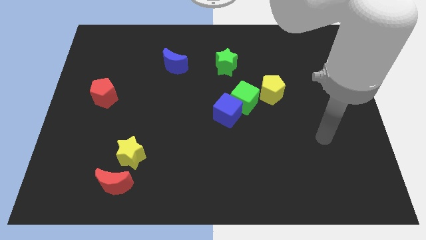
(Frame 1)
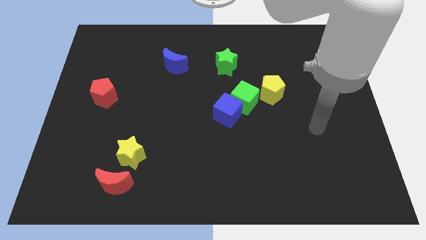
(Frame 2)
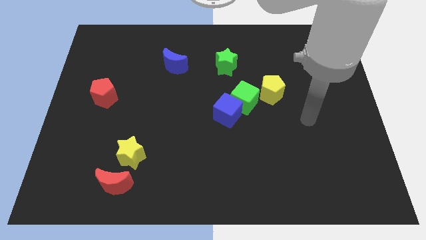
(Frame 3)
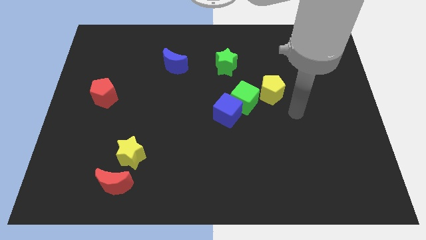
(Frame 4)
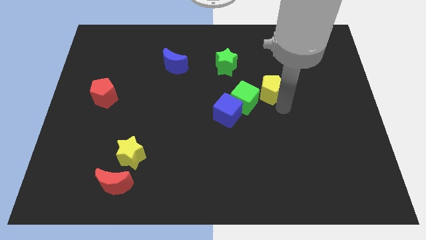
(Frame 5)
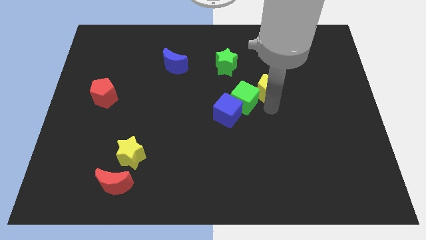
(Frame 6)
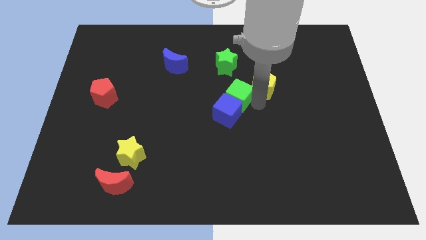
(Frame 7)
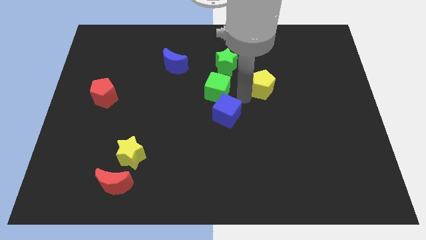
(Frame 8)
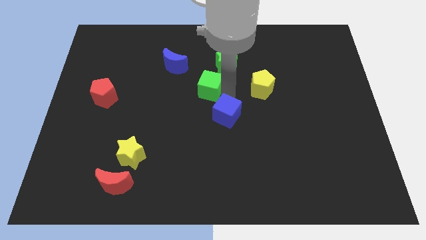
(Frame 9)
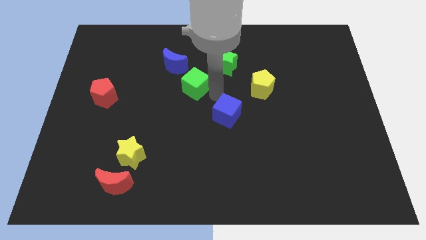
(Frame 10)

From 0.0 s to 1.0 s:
move the blue cube away from the green cube

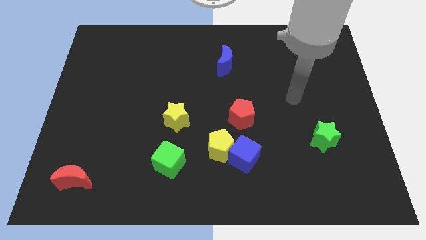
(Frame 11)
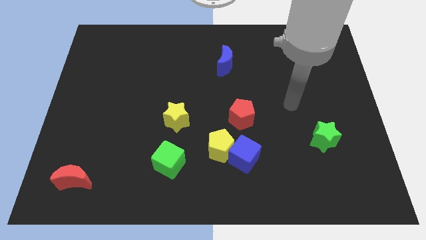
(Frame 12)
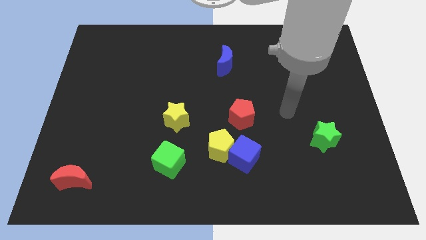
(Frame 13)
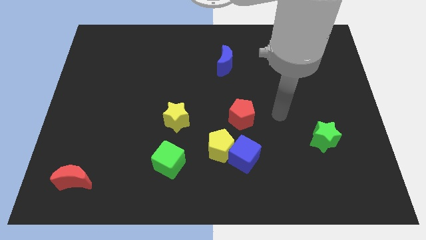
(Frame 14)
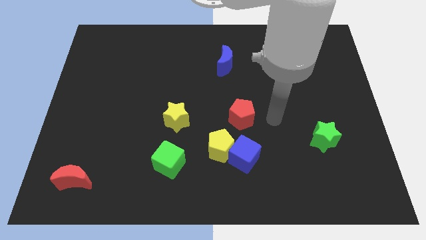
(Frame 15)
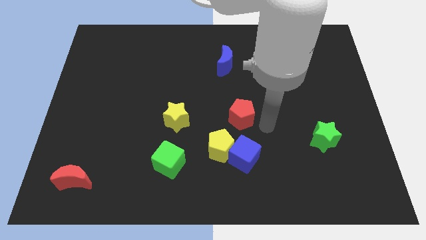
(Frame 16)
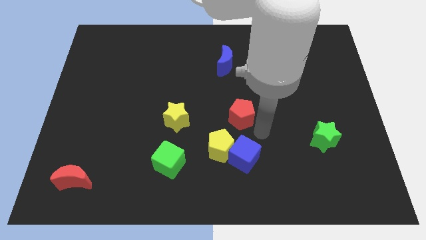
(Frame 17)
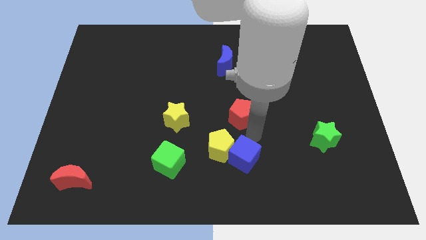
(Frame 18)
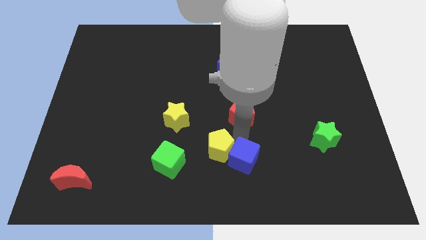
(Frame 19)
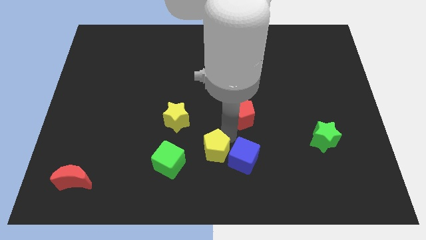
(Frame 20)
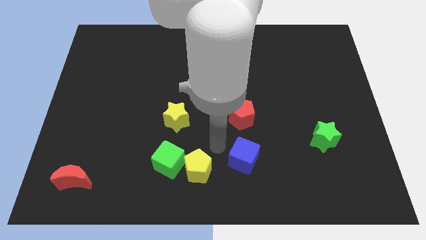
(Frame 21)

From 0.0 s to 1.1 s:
pull the blue cube apart from the yellow pentagon

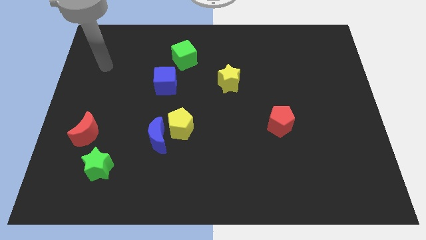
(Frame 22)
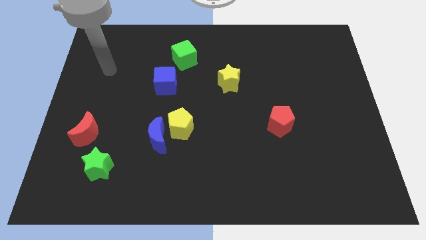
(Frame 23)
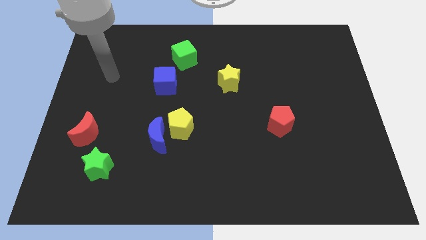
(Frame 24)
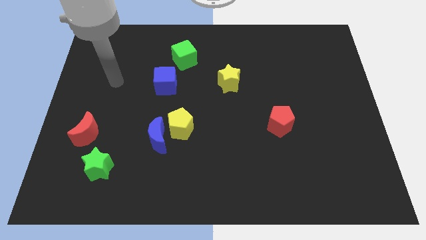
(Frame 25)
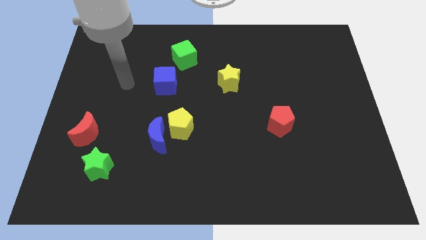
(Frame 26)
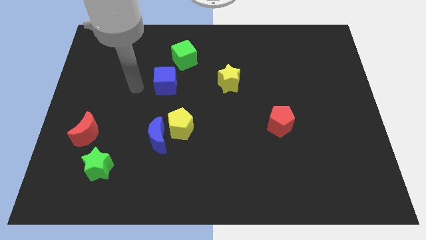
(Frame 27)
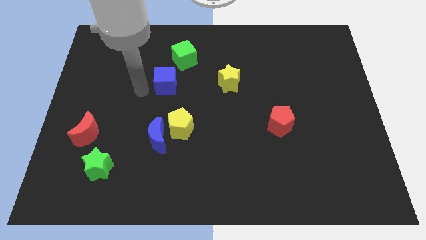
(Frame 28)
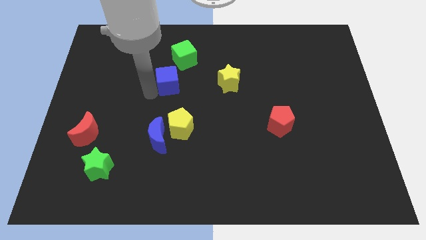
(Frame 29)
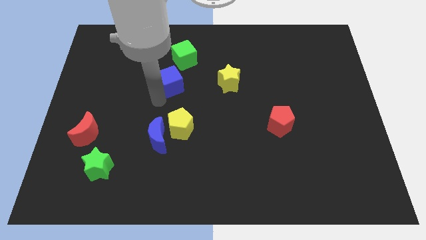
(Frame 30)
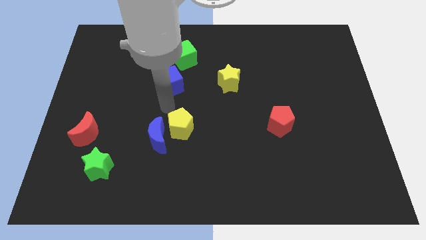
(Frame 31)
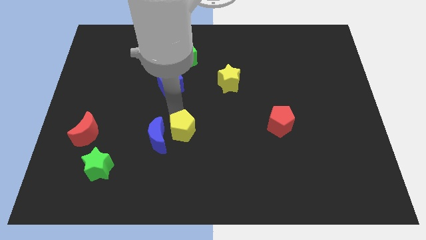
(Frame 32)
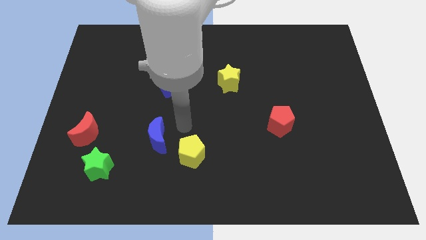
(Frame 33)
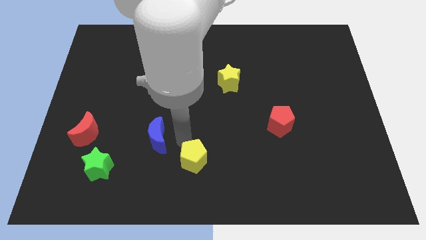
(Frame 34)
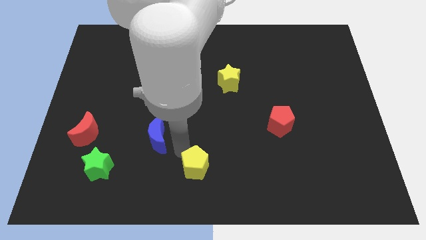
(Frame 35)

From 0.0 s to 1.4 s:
pull the blue moon apart from the yellow pentagon

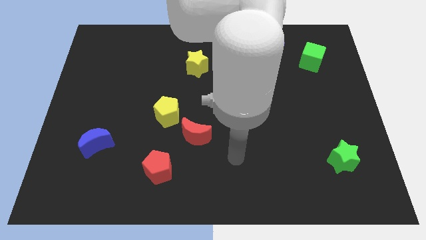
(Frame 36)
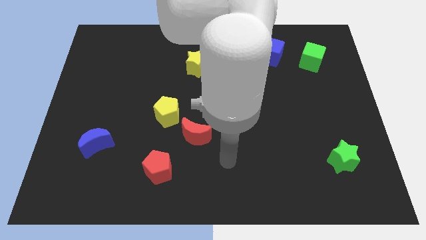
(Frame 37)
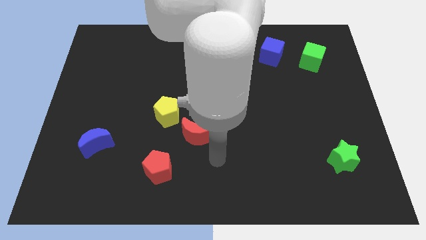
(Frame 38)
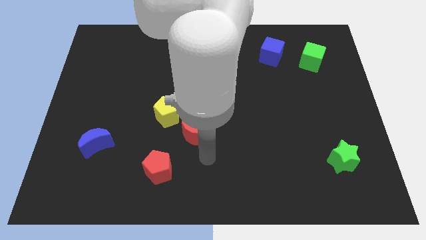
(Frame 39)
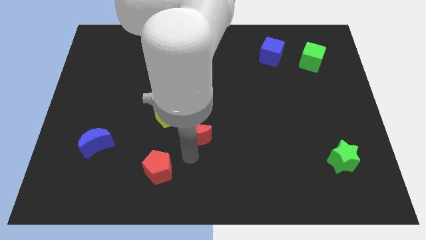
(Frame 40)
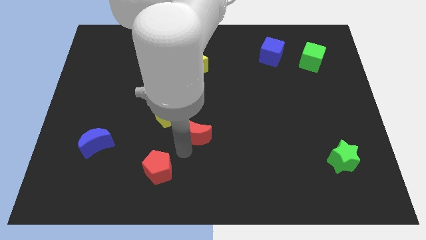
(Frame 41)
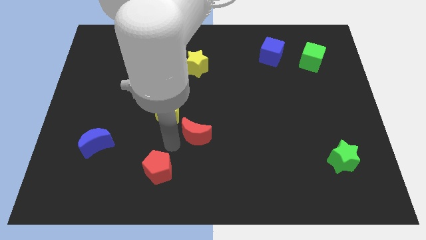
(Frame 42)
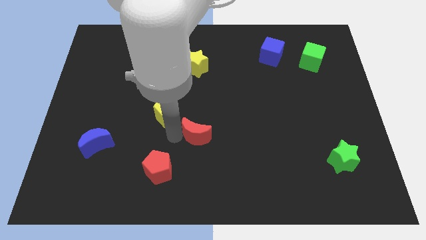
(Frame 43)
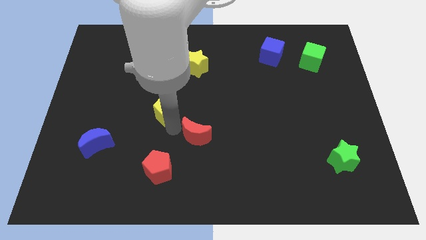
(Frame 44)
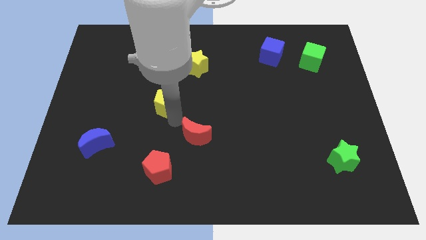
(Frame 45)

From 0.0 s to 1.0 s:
pull the red moon apart from the yellow pentagon

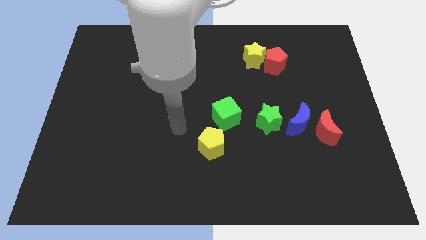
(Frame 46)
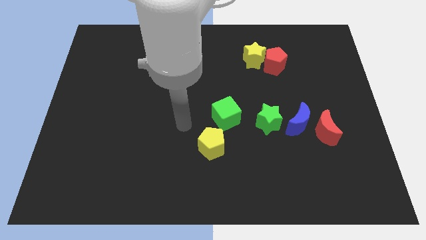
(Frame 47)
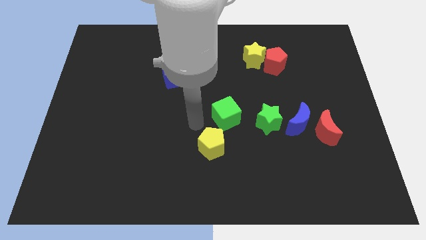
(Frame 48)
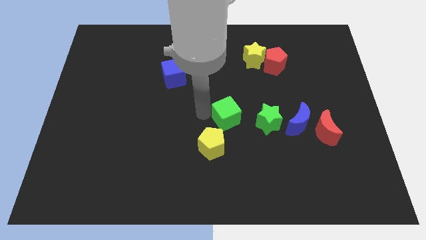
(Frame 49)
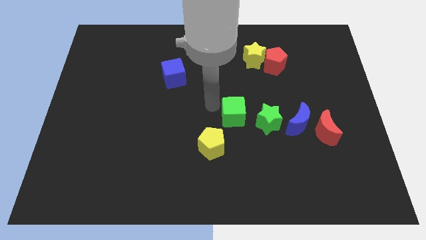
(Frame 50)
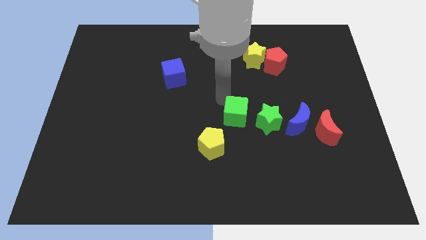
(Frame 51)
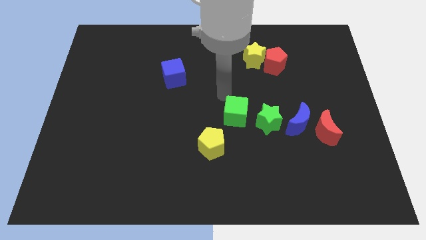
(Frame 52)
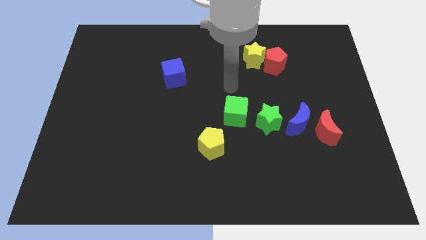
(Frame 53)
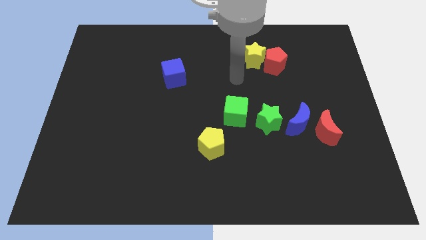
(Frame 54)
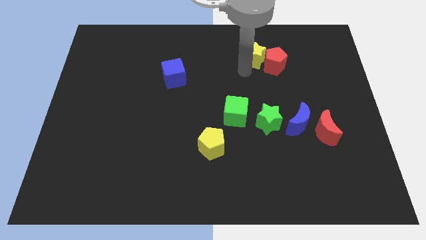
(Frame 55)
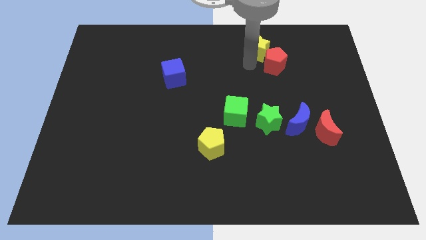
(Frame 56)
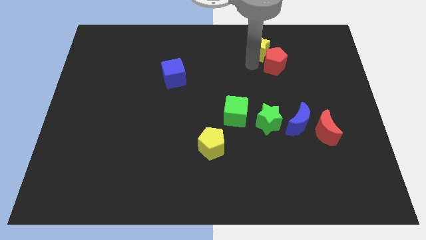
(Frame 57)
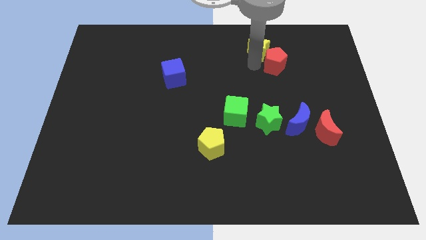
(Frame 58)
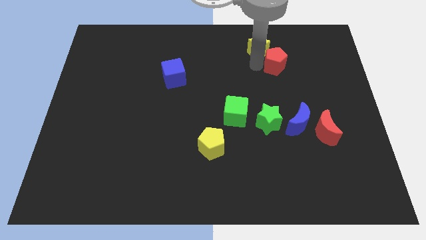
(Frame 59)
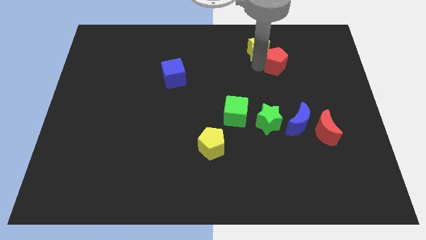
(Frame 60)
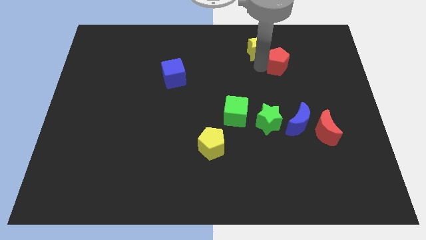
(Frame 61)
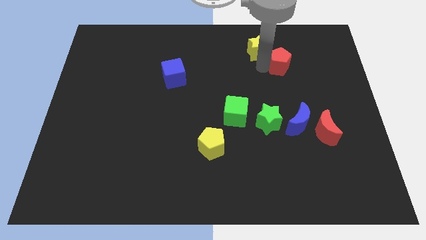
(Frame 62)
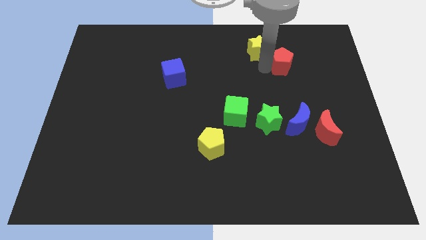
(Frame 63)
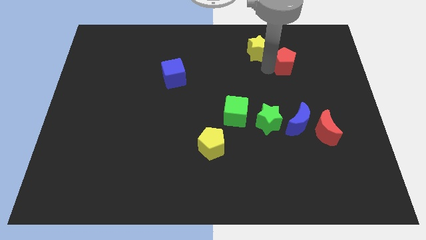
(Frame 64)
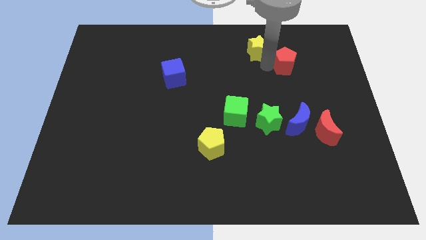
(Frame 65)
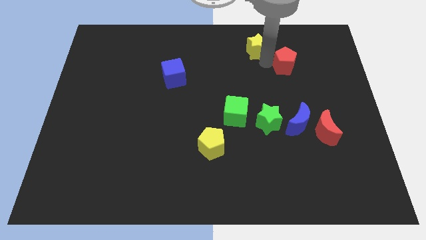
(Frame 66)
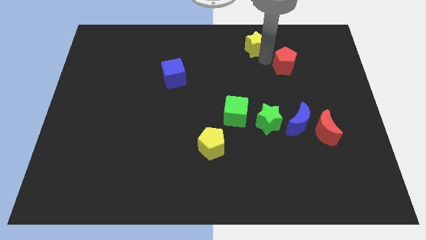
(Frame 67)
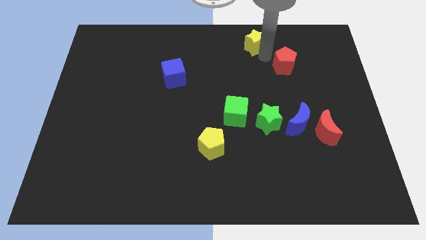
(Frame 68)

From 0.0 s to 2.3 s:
move the red pentagon away from the yellow star

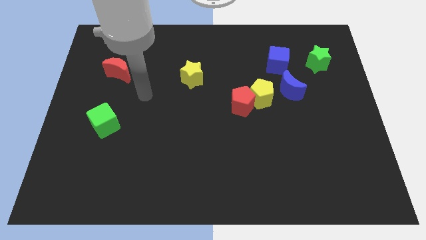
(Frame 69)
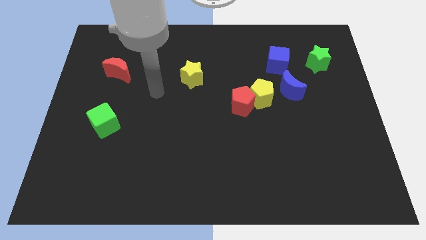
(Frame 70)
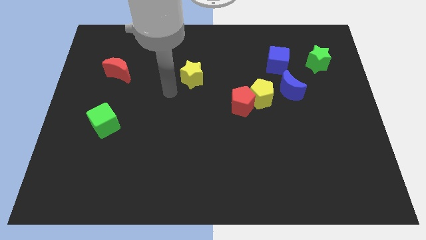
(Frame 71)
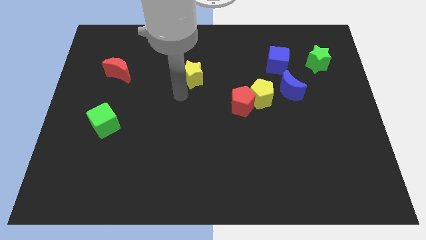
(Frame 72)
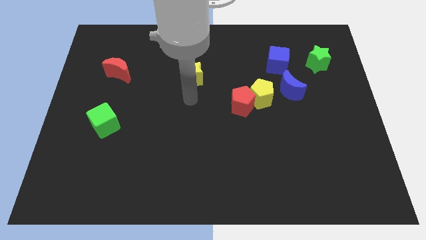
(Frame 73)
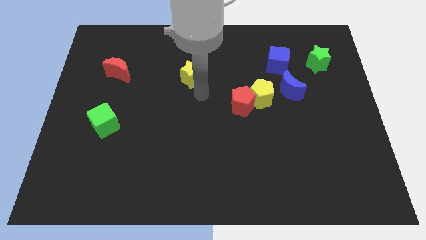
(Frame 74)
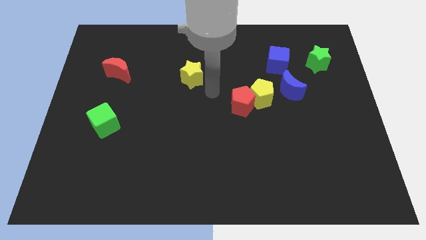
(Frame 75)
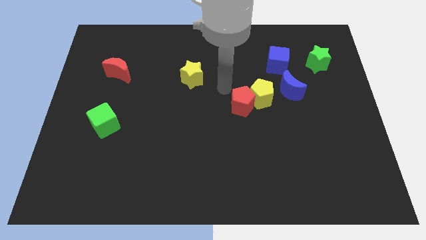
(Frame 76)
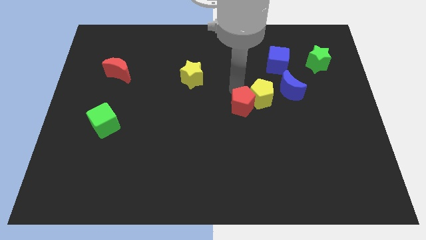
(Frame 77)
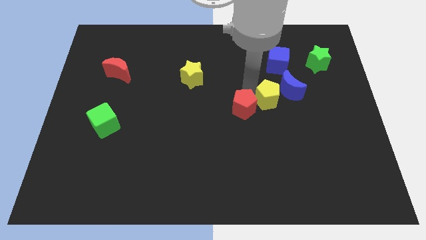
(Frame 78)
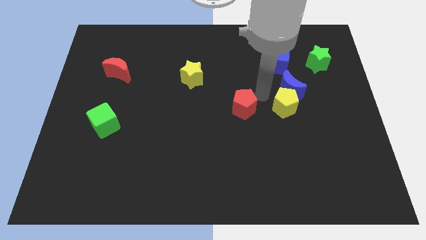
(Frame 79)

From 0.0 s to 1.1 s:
pull the red pentagon apart from the yellow pentagon

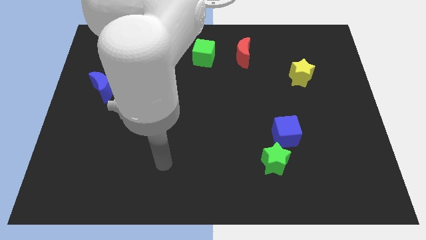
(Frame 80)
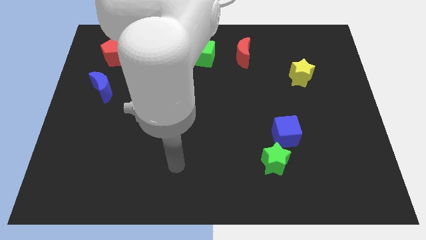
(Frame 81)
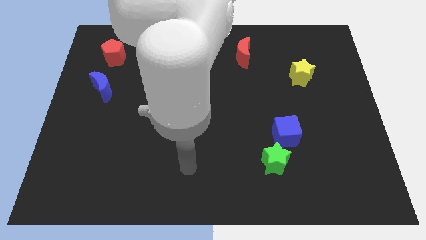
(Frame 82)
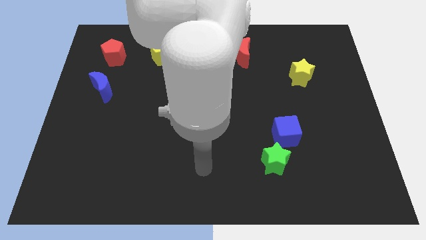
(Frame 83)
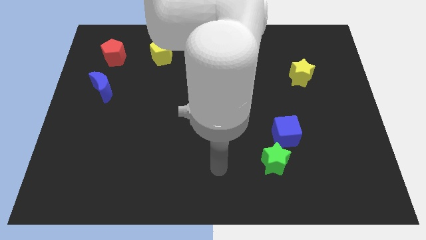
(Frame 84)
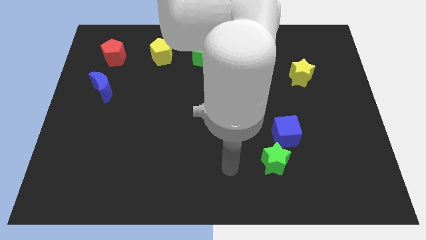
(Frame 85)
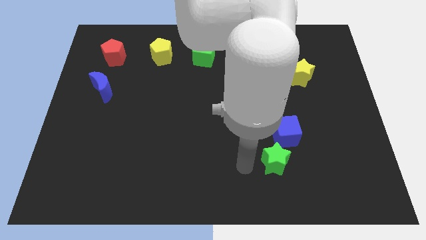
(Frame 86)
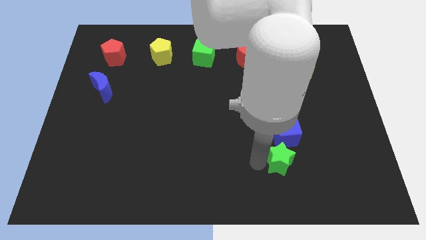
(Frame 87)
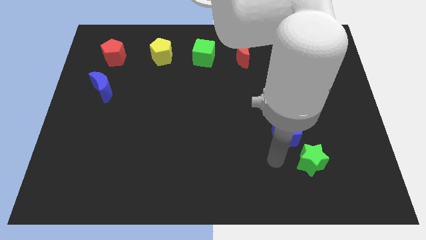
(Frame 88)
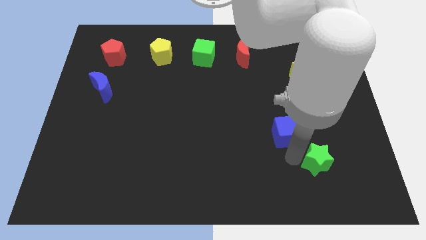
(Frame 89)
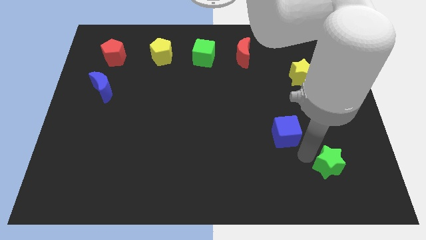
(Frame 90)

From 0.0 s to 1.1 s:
move the blue cube away from the green star

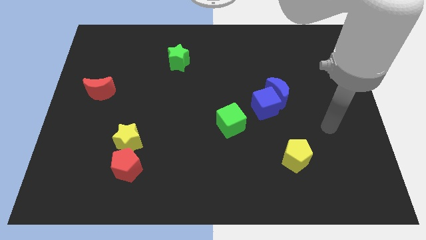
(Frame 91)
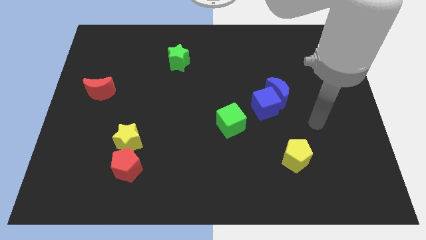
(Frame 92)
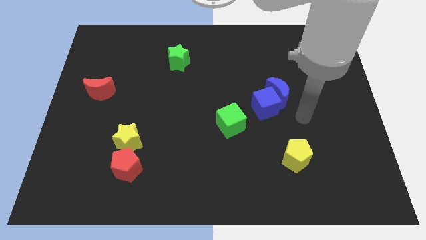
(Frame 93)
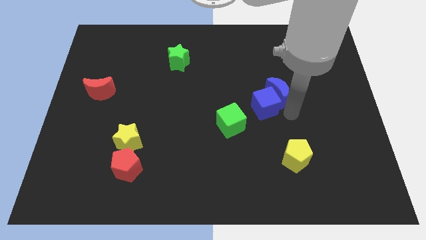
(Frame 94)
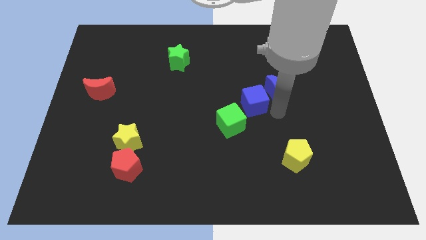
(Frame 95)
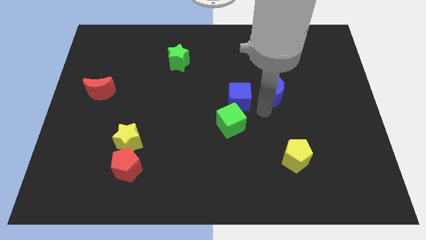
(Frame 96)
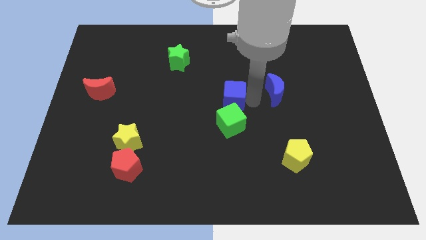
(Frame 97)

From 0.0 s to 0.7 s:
move the blue moon away from the blue cube
